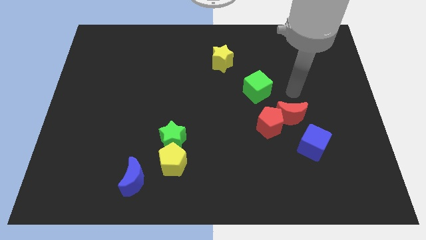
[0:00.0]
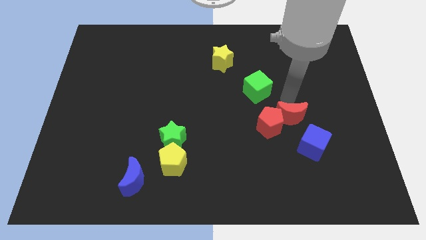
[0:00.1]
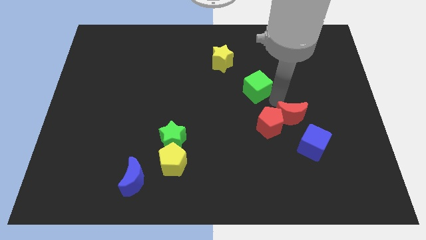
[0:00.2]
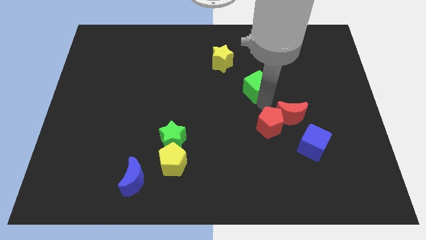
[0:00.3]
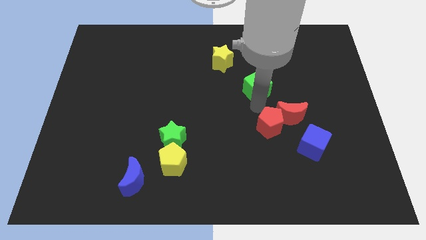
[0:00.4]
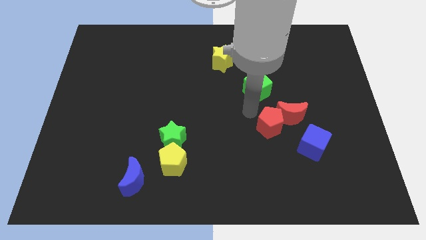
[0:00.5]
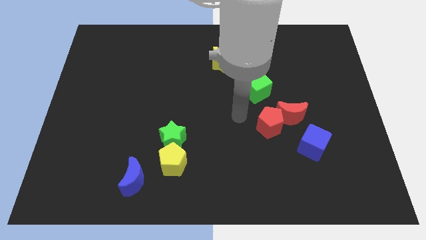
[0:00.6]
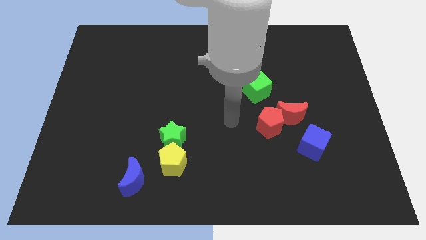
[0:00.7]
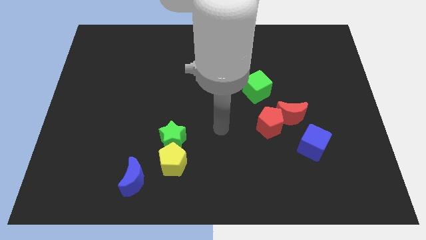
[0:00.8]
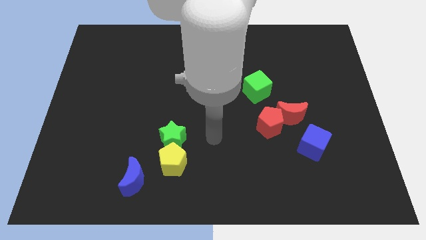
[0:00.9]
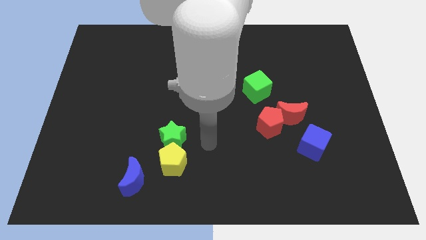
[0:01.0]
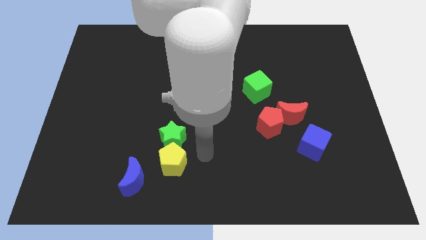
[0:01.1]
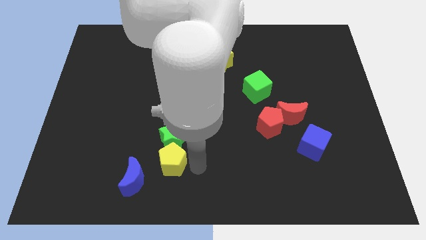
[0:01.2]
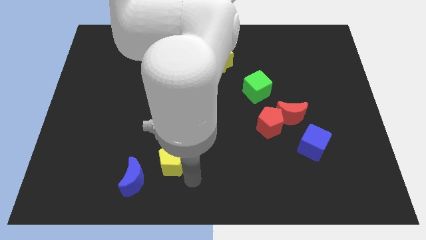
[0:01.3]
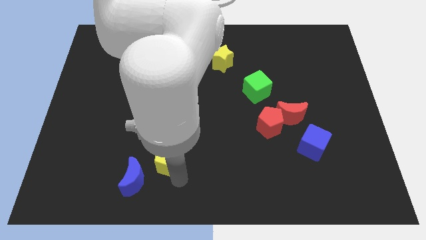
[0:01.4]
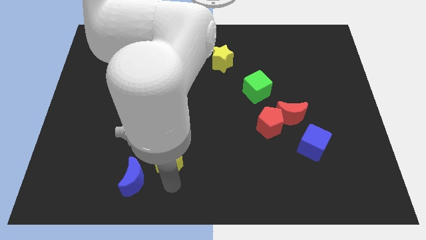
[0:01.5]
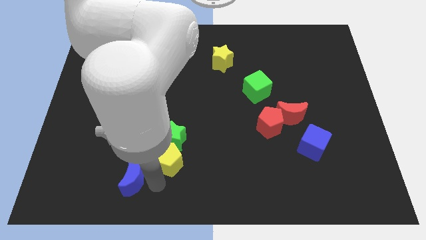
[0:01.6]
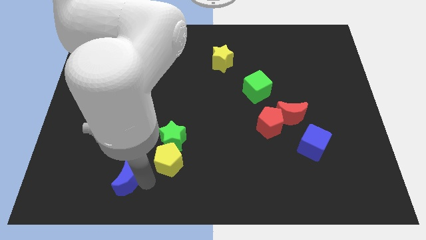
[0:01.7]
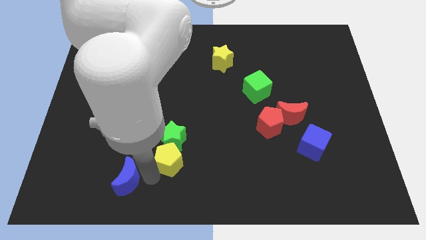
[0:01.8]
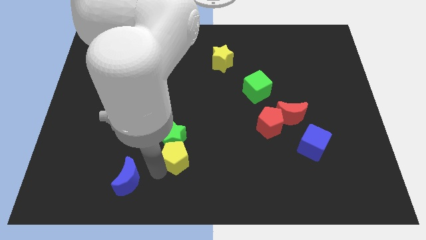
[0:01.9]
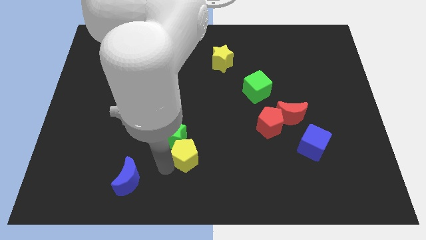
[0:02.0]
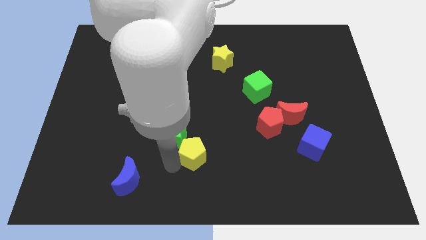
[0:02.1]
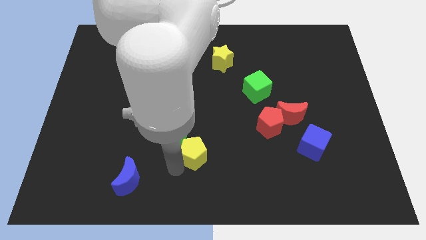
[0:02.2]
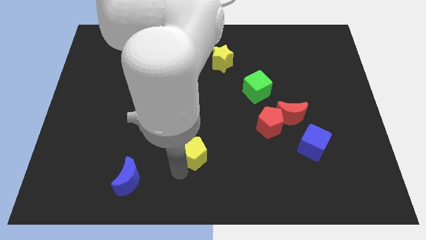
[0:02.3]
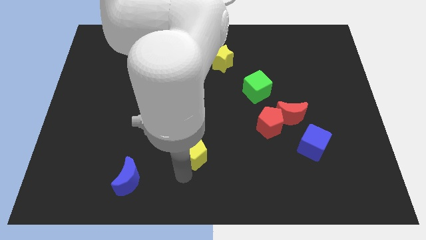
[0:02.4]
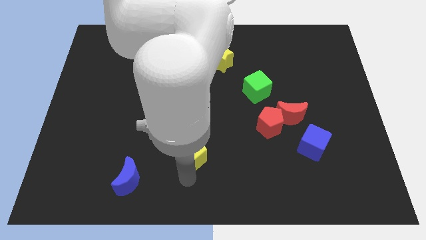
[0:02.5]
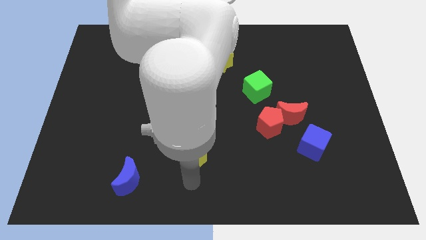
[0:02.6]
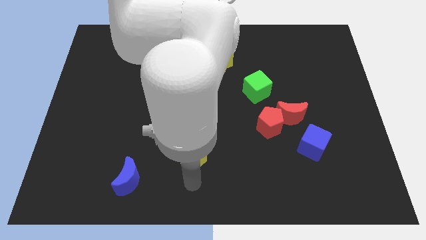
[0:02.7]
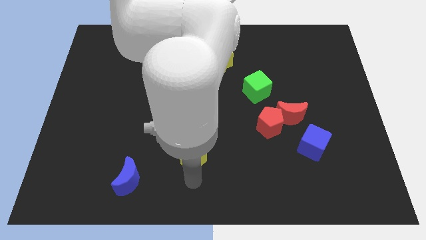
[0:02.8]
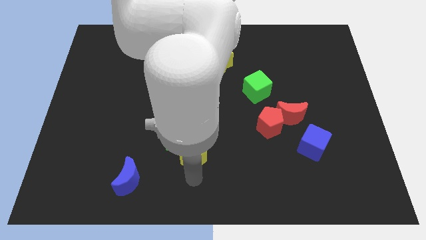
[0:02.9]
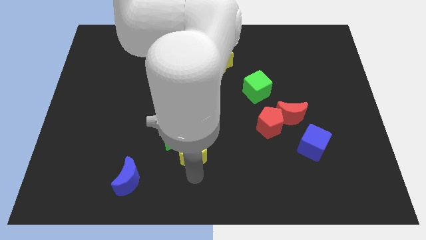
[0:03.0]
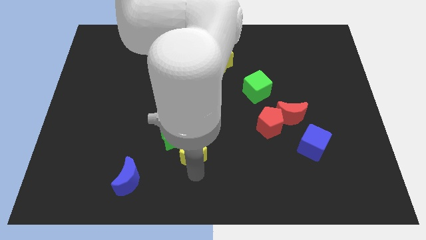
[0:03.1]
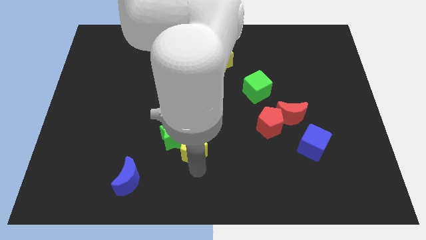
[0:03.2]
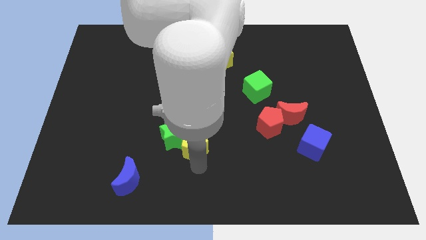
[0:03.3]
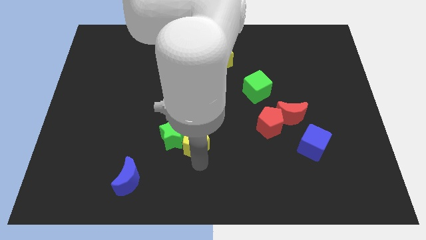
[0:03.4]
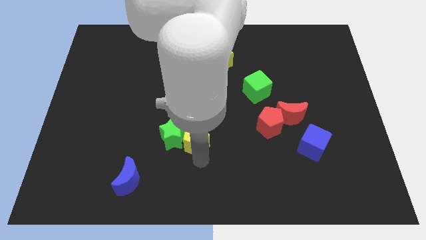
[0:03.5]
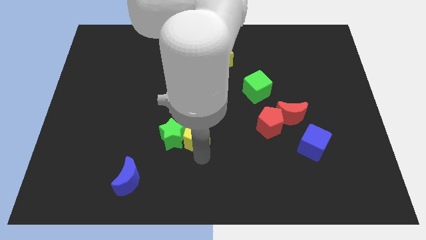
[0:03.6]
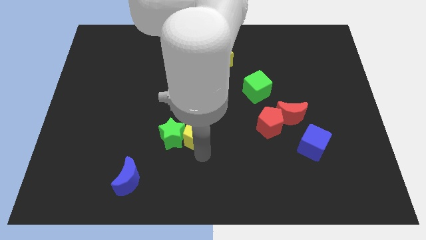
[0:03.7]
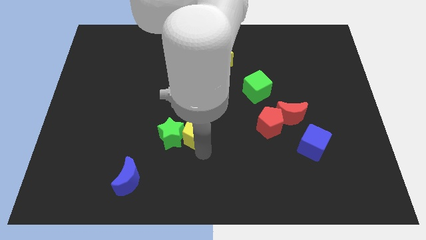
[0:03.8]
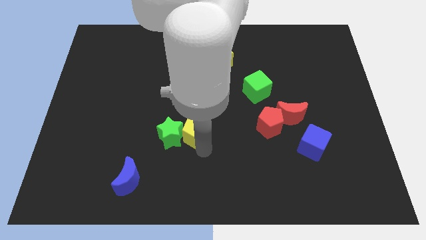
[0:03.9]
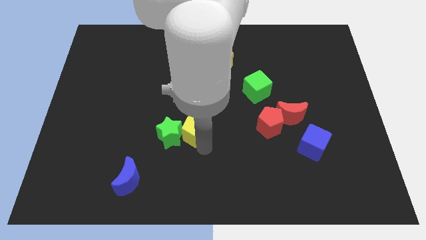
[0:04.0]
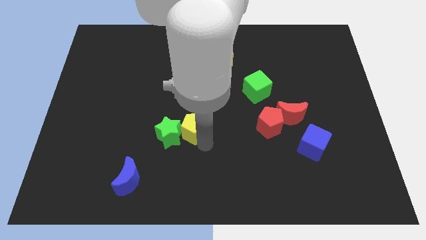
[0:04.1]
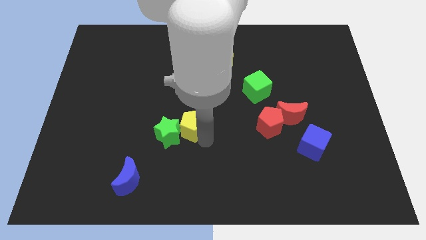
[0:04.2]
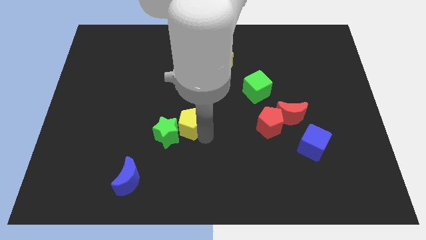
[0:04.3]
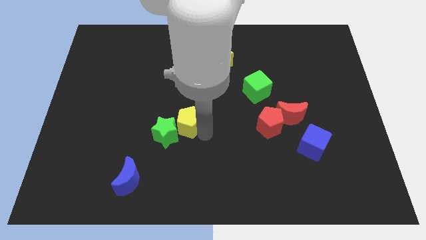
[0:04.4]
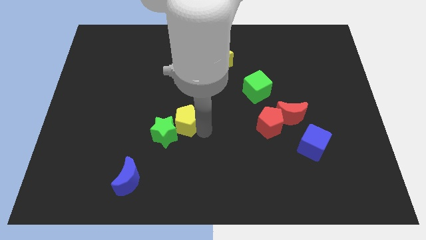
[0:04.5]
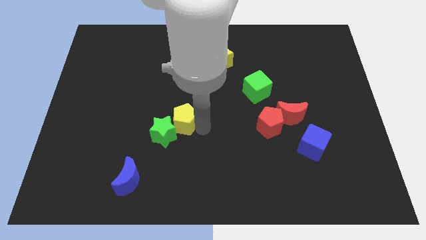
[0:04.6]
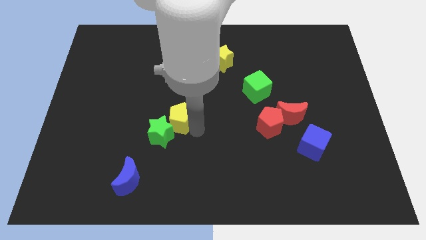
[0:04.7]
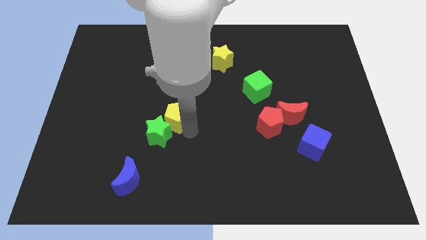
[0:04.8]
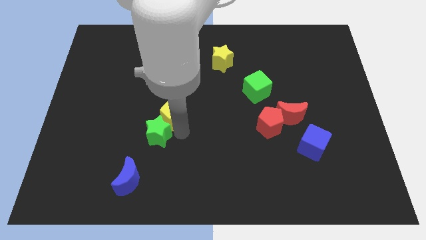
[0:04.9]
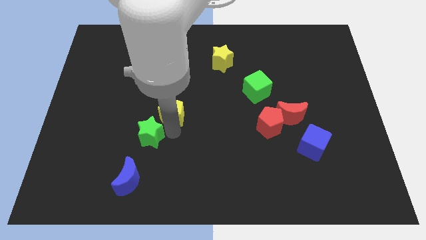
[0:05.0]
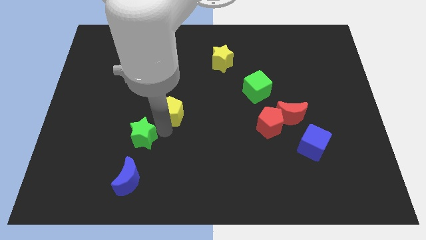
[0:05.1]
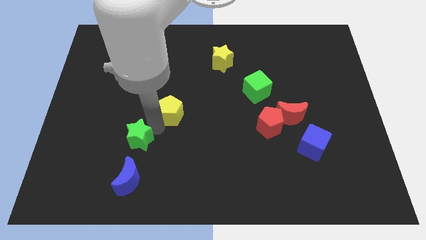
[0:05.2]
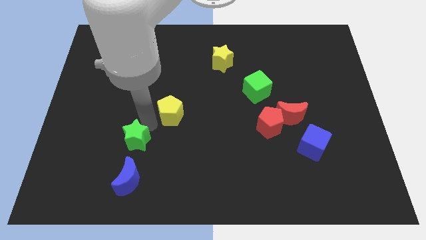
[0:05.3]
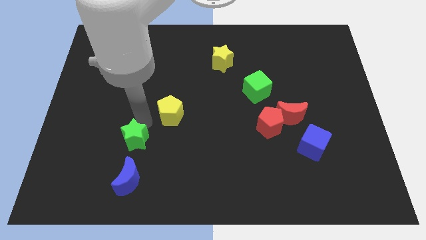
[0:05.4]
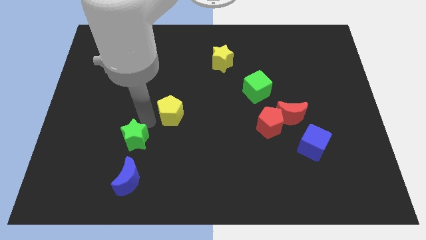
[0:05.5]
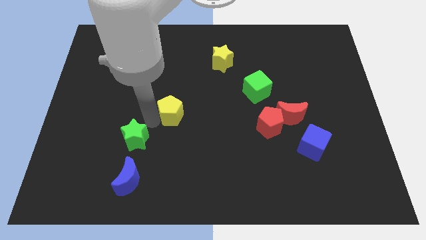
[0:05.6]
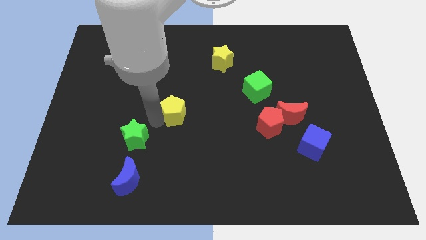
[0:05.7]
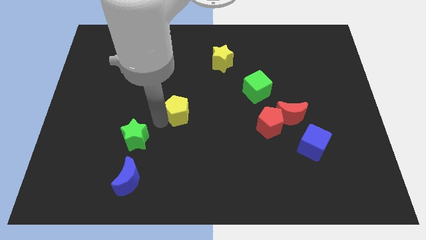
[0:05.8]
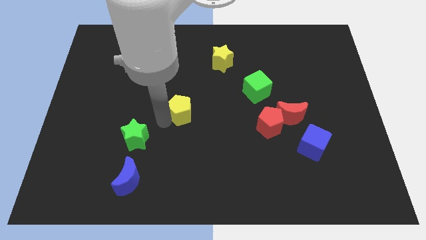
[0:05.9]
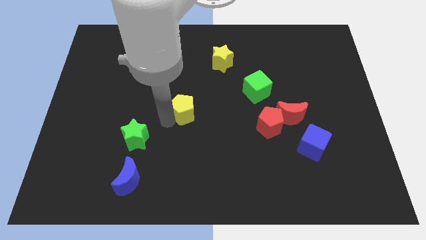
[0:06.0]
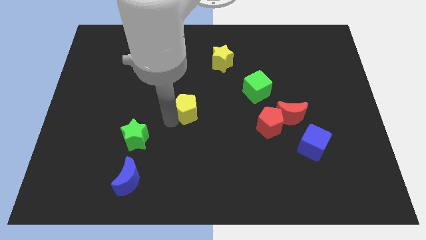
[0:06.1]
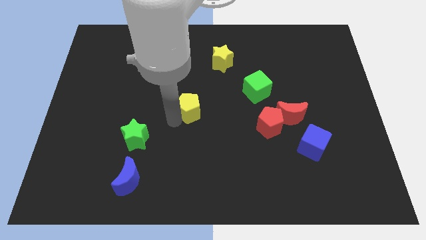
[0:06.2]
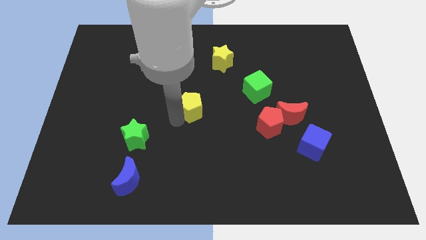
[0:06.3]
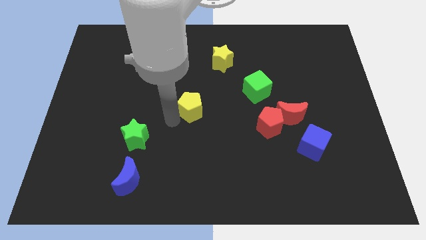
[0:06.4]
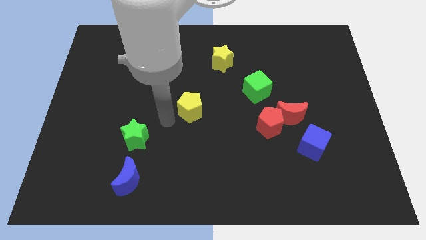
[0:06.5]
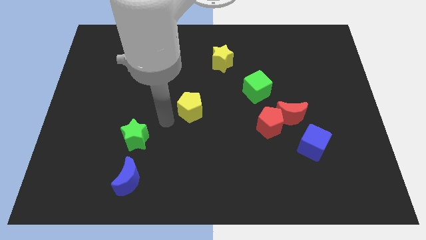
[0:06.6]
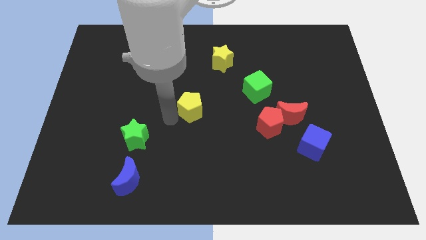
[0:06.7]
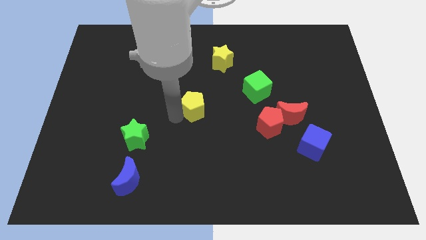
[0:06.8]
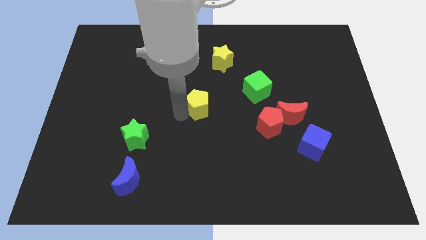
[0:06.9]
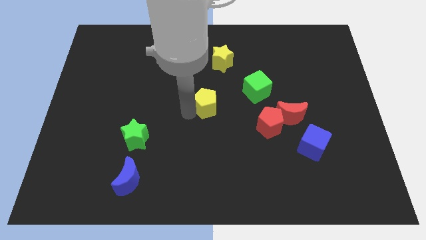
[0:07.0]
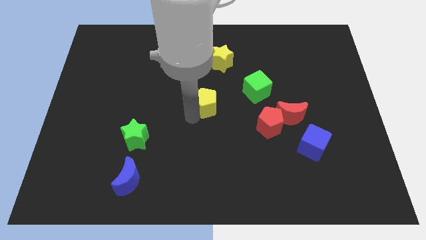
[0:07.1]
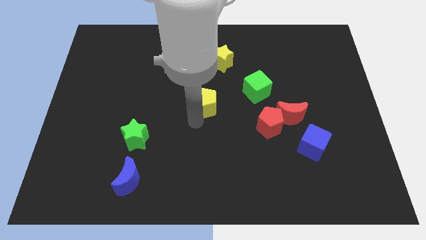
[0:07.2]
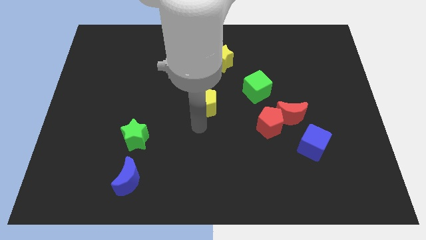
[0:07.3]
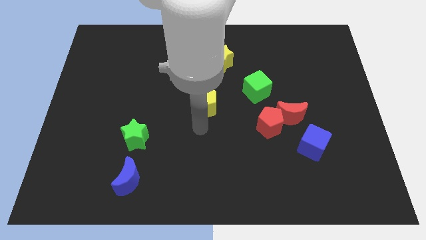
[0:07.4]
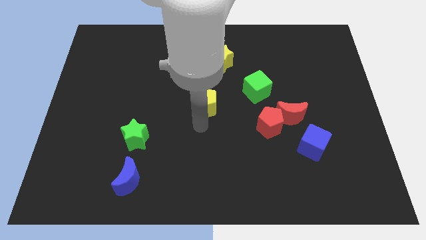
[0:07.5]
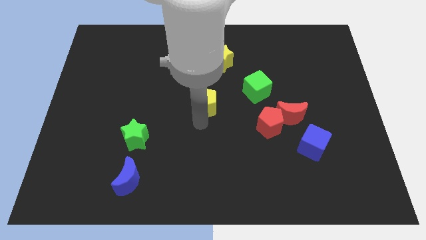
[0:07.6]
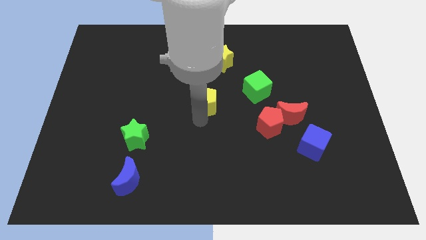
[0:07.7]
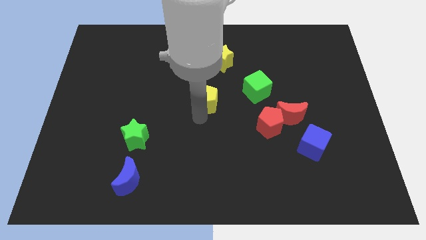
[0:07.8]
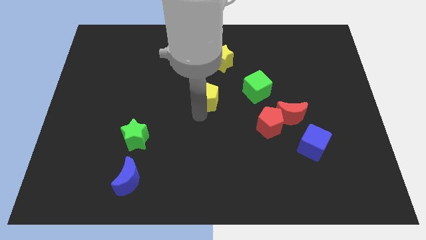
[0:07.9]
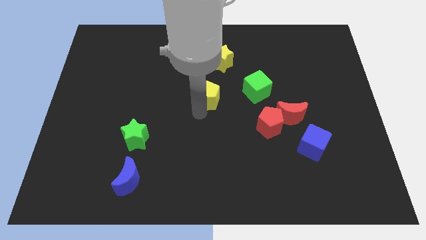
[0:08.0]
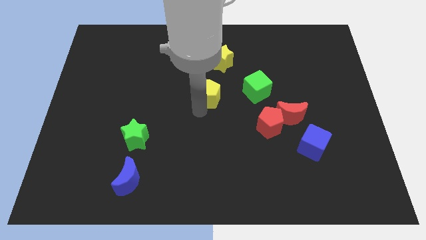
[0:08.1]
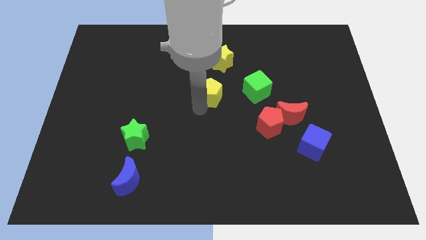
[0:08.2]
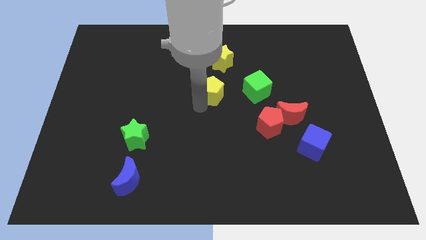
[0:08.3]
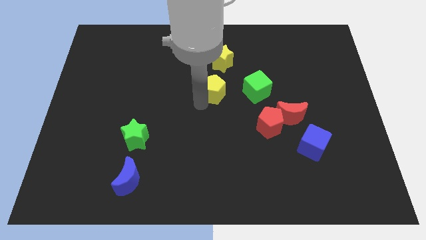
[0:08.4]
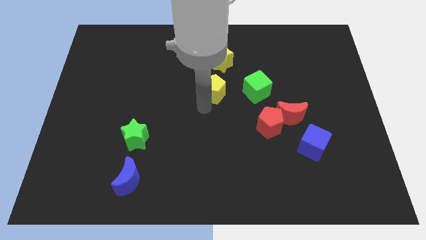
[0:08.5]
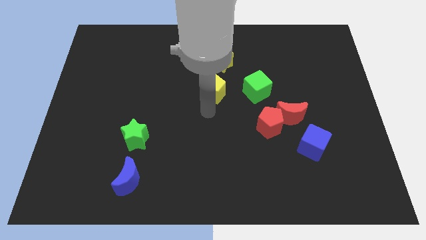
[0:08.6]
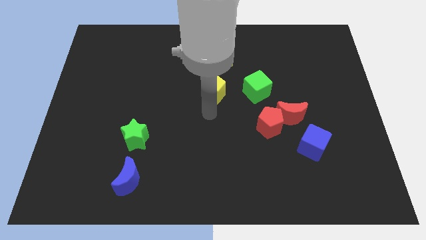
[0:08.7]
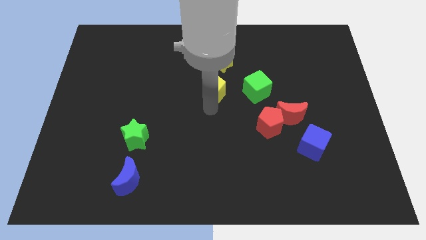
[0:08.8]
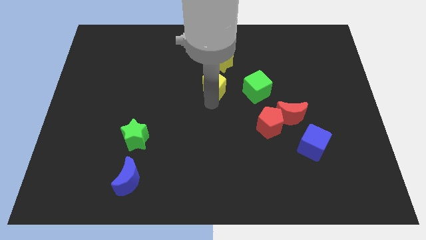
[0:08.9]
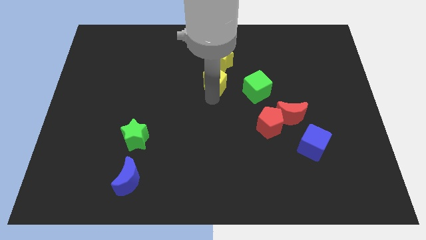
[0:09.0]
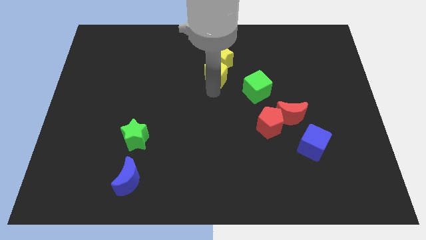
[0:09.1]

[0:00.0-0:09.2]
slide the yellow pentagon to the yellow star
